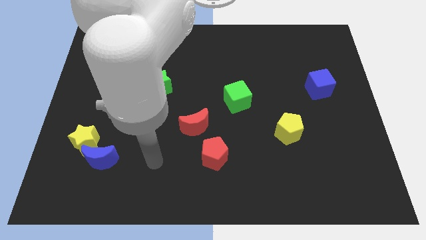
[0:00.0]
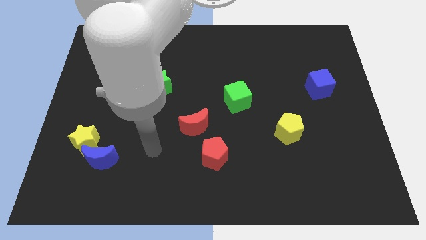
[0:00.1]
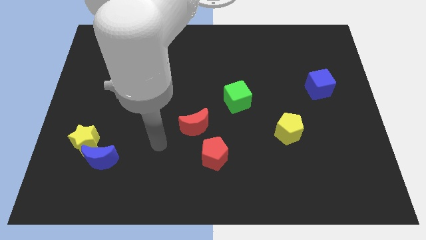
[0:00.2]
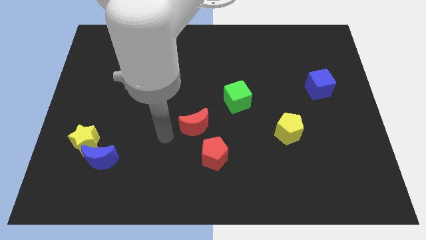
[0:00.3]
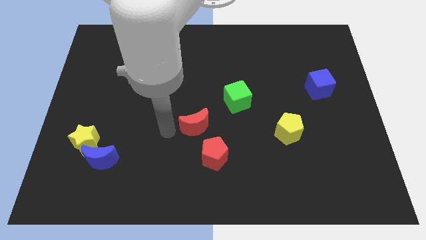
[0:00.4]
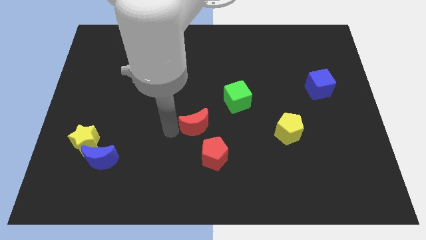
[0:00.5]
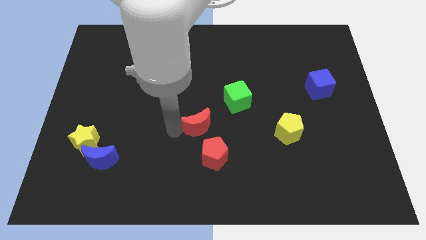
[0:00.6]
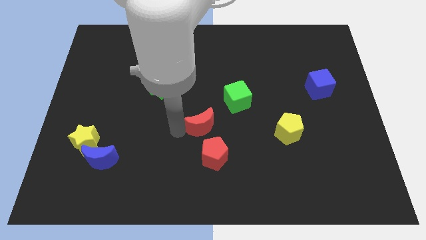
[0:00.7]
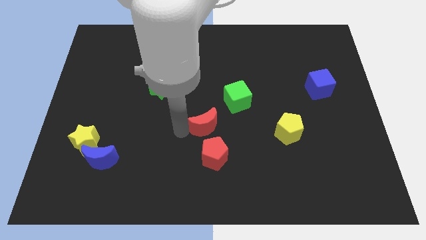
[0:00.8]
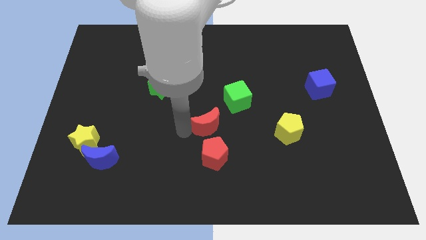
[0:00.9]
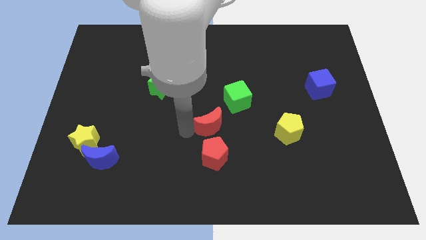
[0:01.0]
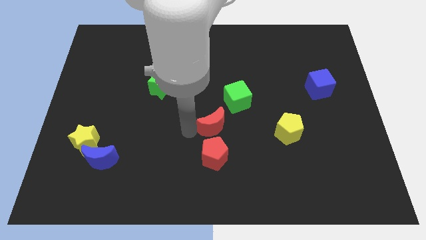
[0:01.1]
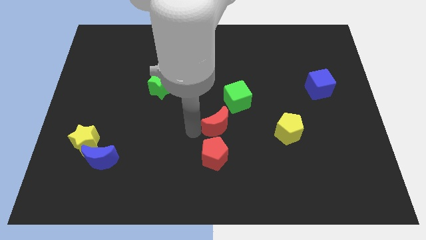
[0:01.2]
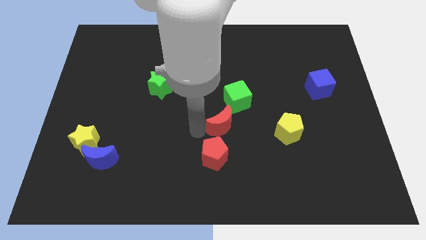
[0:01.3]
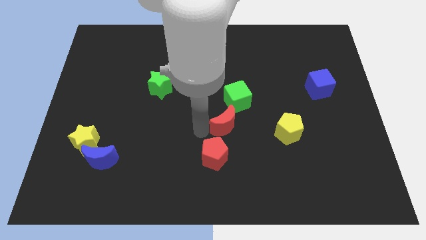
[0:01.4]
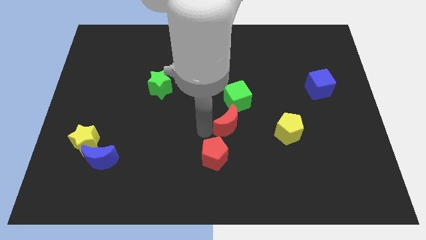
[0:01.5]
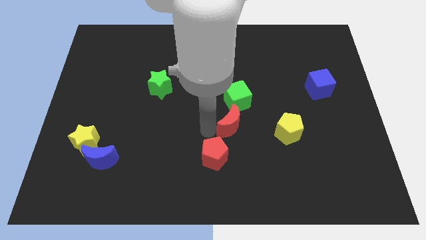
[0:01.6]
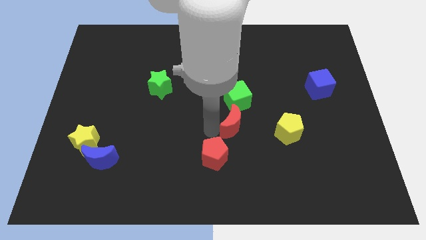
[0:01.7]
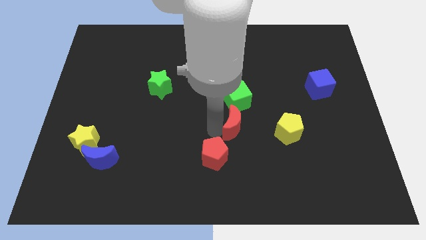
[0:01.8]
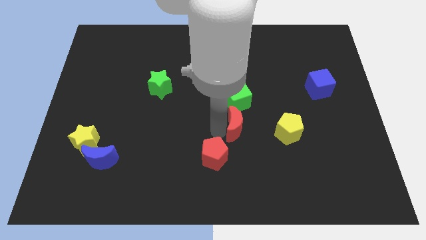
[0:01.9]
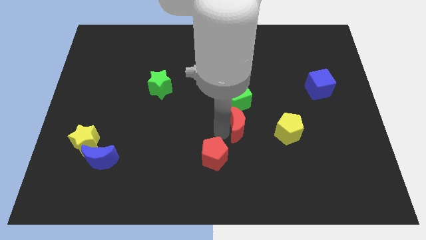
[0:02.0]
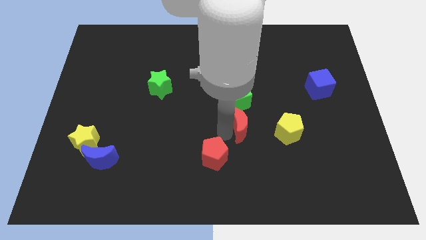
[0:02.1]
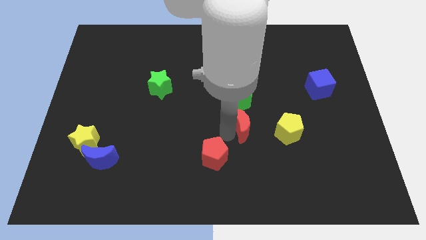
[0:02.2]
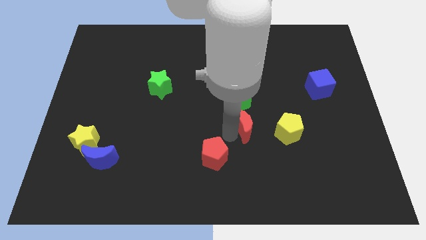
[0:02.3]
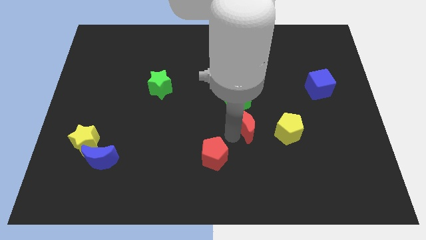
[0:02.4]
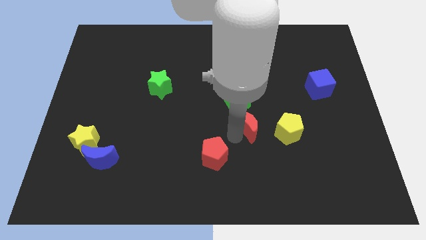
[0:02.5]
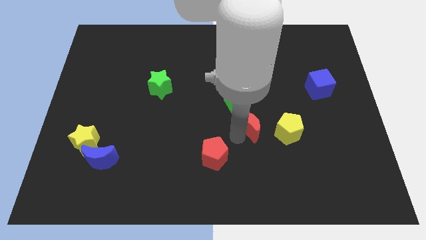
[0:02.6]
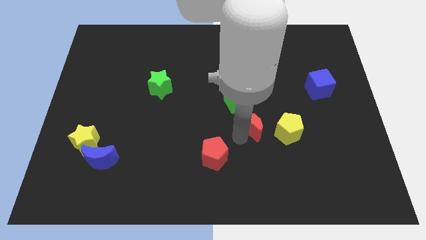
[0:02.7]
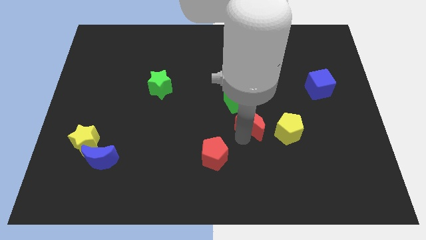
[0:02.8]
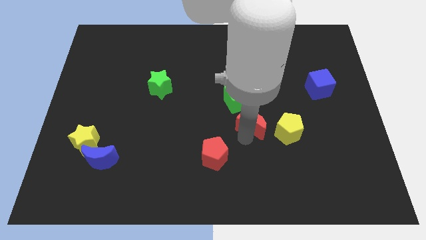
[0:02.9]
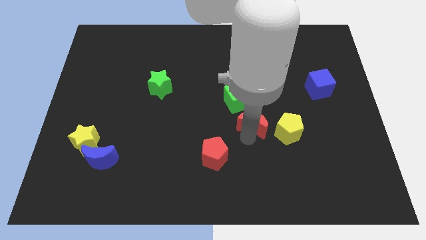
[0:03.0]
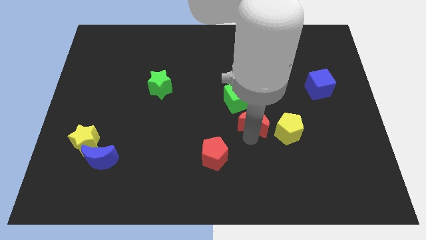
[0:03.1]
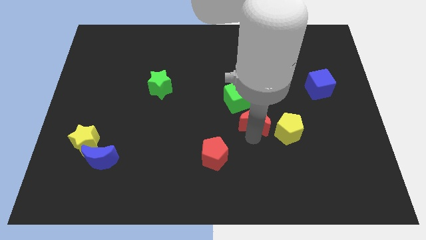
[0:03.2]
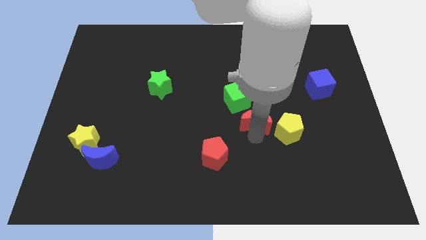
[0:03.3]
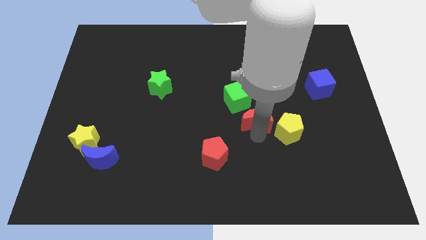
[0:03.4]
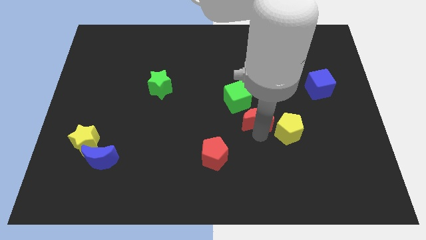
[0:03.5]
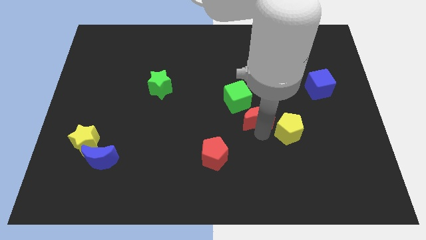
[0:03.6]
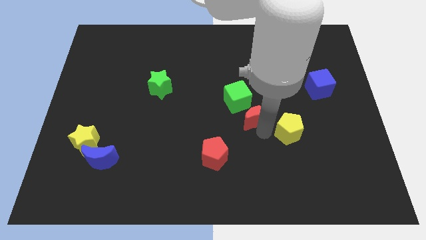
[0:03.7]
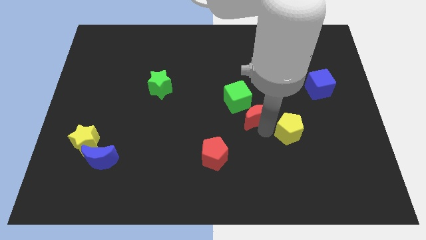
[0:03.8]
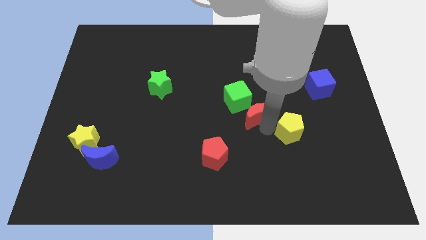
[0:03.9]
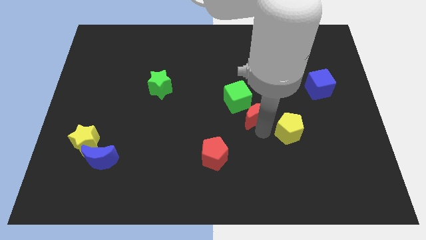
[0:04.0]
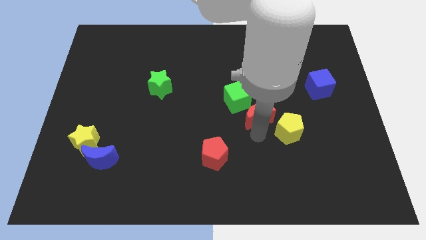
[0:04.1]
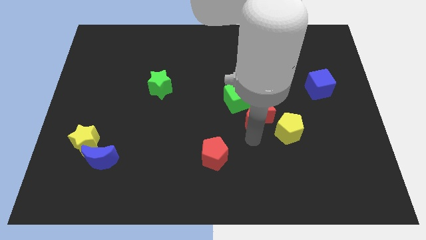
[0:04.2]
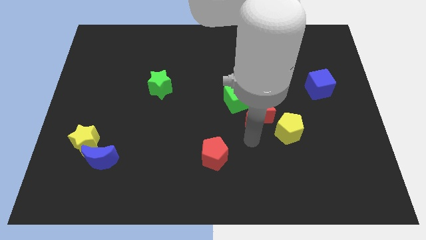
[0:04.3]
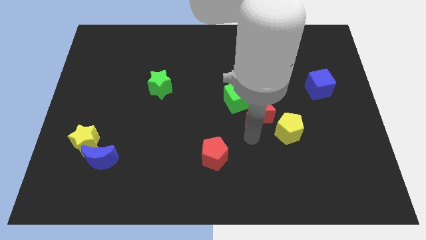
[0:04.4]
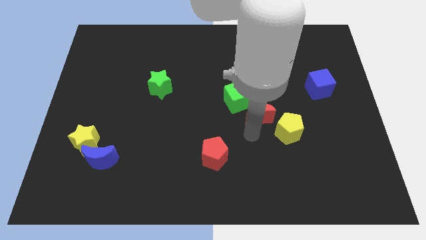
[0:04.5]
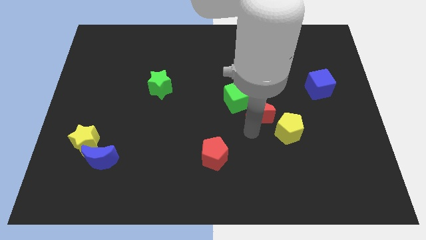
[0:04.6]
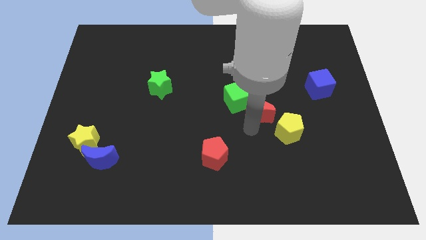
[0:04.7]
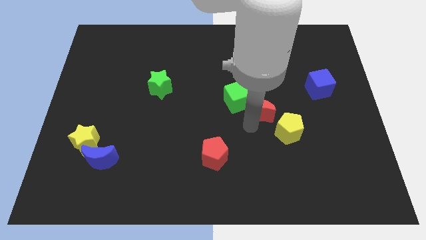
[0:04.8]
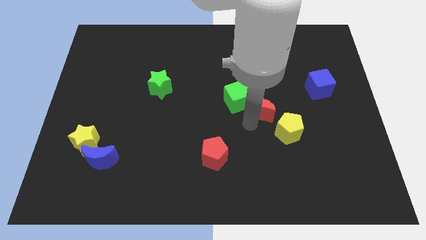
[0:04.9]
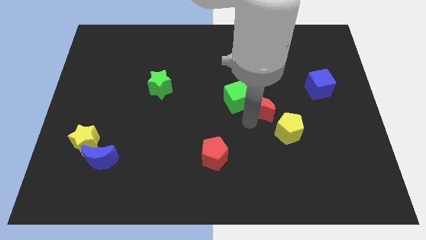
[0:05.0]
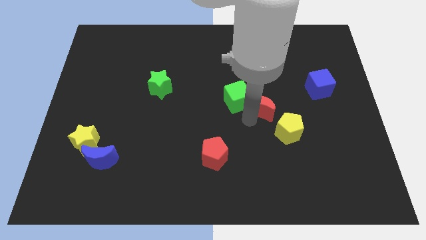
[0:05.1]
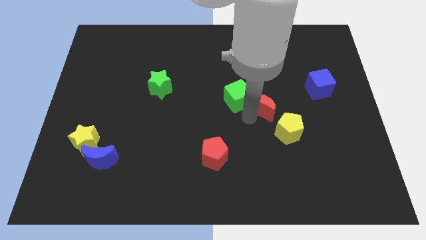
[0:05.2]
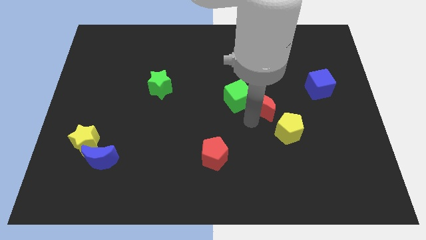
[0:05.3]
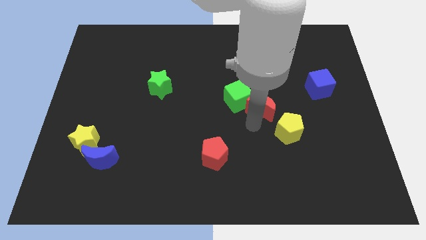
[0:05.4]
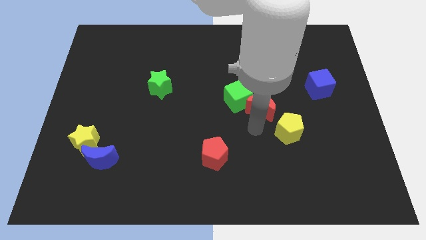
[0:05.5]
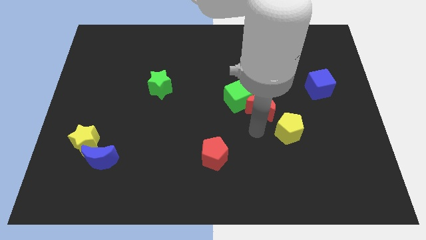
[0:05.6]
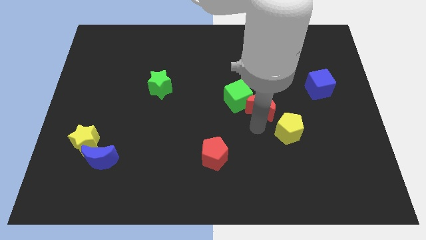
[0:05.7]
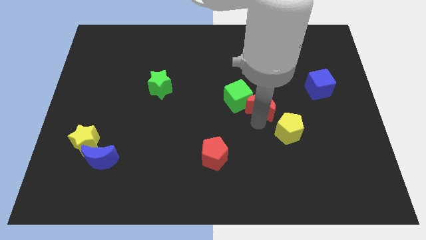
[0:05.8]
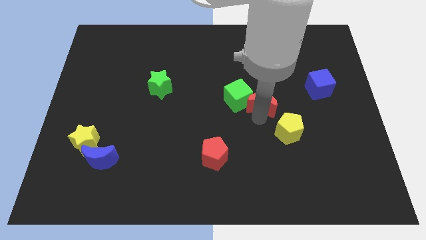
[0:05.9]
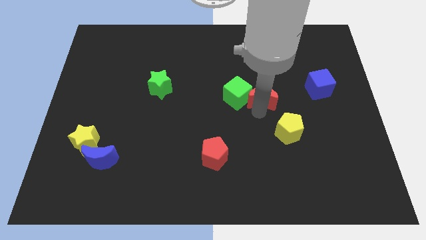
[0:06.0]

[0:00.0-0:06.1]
slide the red moon to the left side of the blue cube

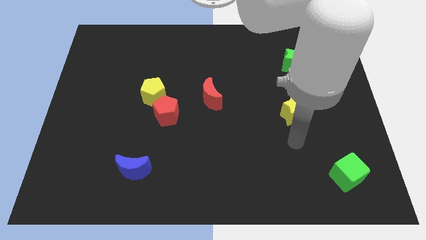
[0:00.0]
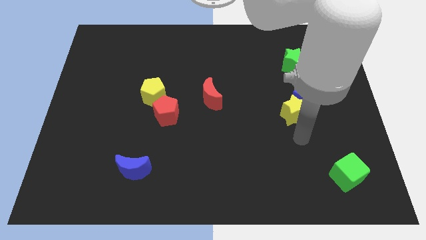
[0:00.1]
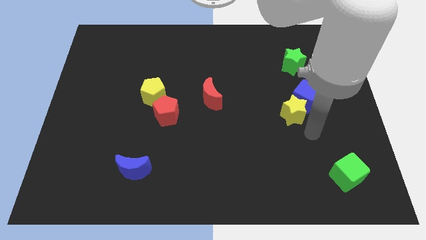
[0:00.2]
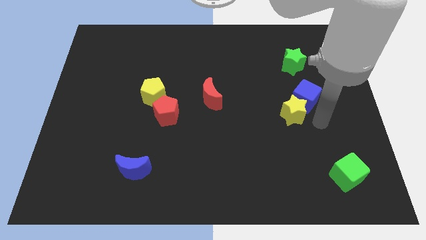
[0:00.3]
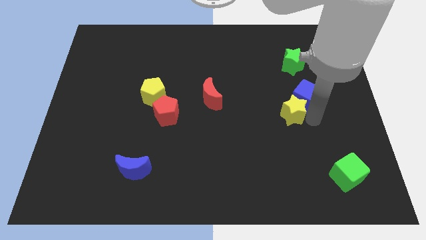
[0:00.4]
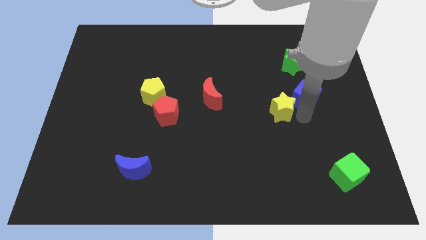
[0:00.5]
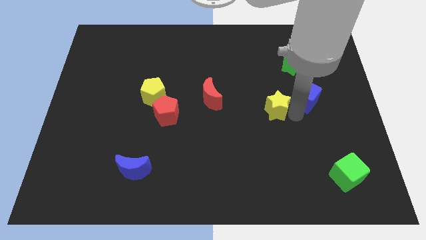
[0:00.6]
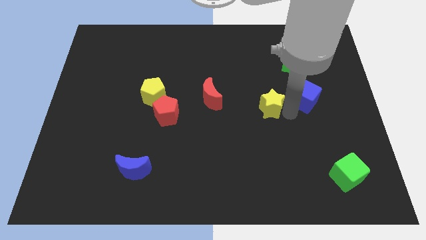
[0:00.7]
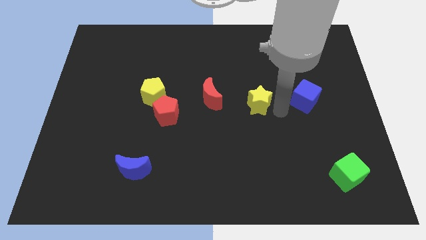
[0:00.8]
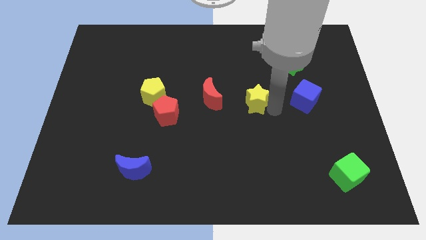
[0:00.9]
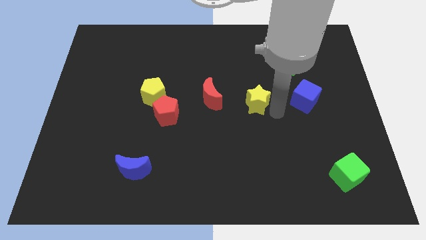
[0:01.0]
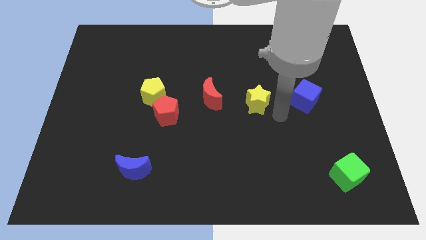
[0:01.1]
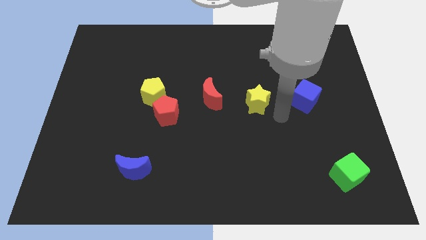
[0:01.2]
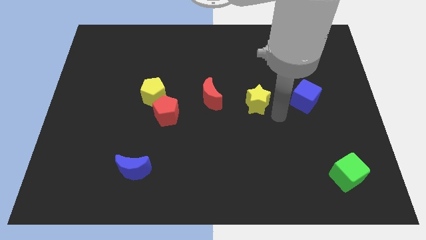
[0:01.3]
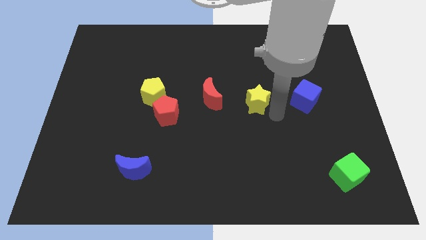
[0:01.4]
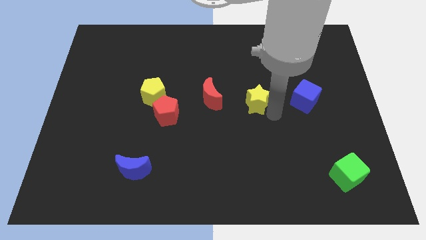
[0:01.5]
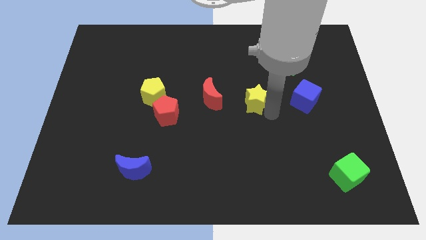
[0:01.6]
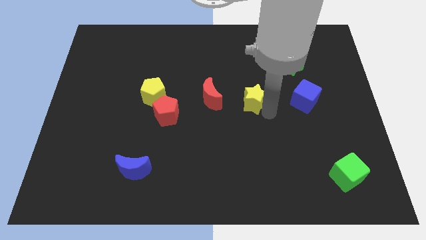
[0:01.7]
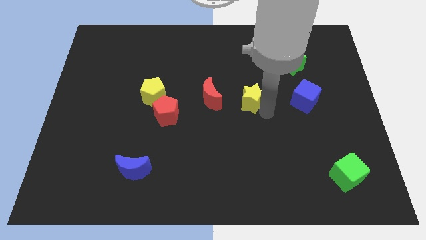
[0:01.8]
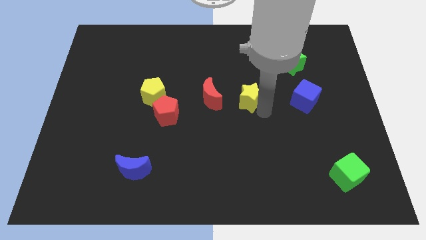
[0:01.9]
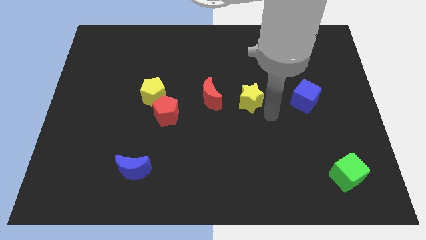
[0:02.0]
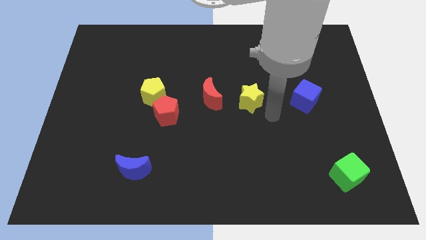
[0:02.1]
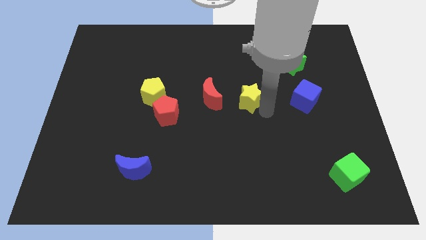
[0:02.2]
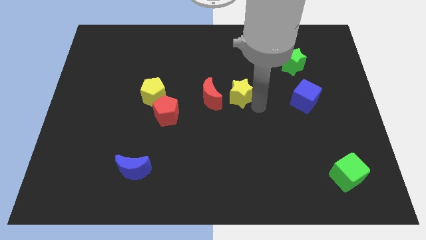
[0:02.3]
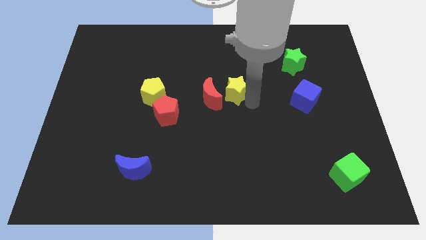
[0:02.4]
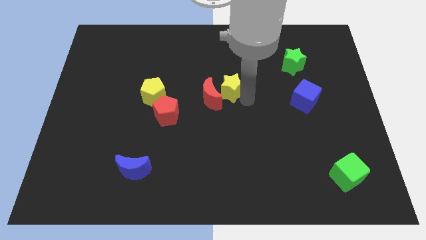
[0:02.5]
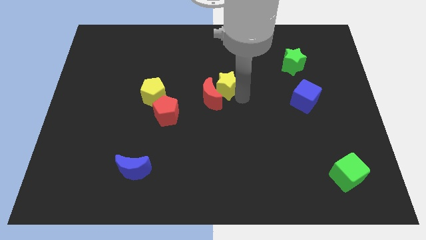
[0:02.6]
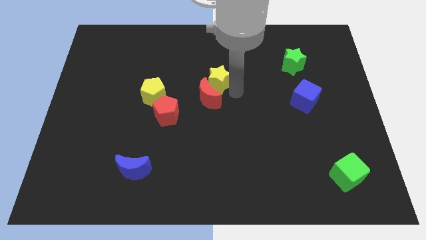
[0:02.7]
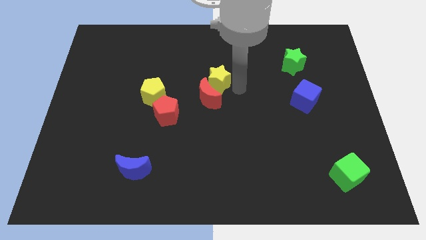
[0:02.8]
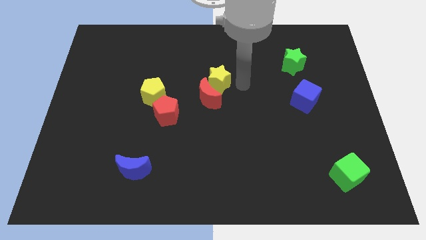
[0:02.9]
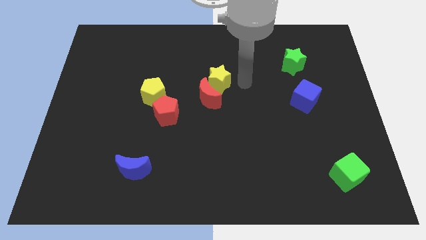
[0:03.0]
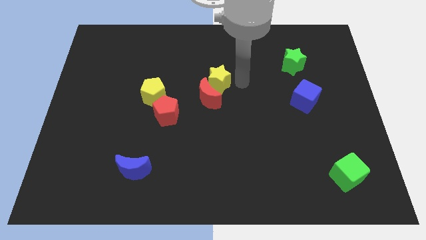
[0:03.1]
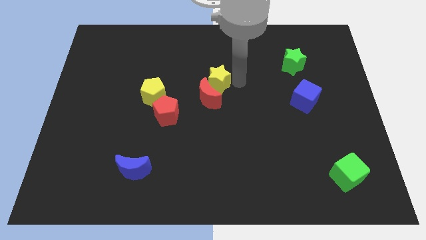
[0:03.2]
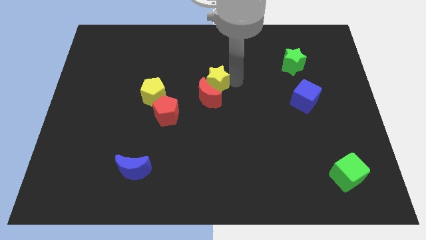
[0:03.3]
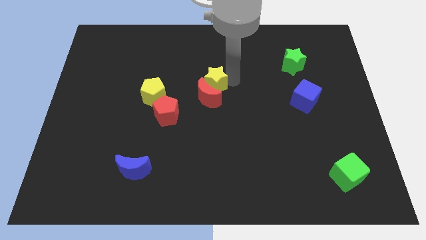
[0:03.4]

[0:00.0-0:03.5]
slide the yellow star to the top left side of the red moon
